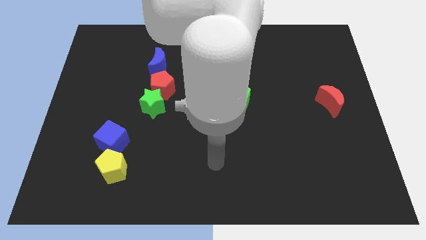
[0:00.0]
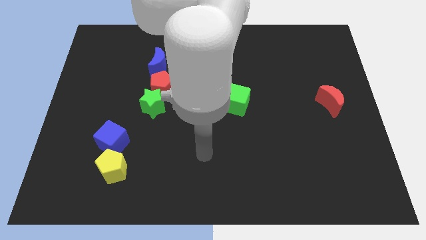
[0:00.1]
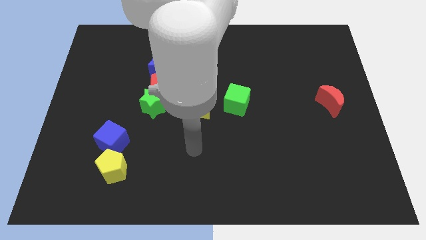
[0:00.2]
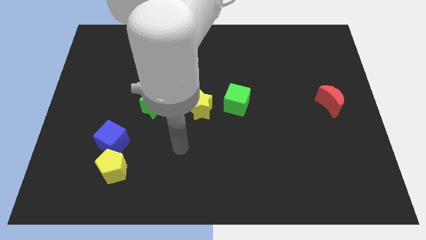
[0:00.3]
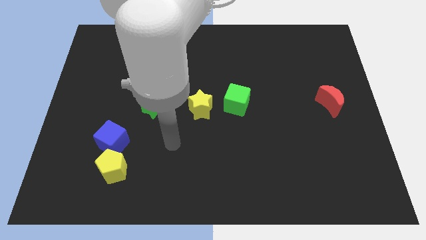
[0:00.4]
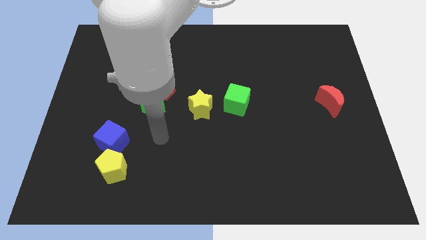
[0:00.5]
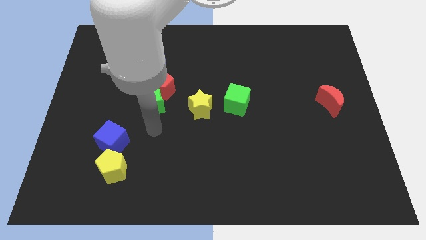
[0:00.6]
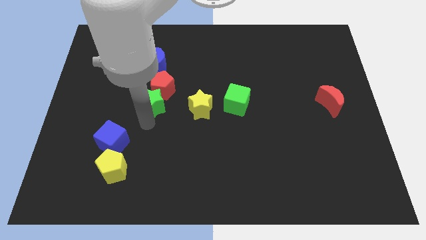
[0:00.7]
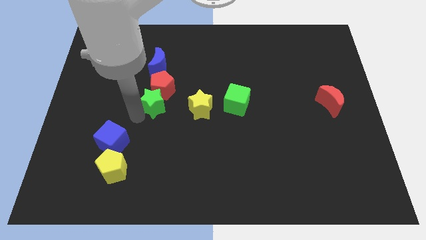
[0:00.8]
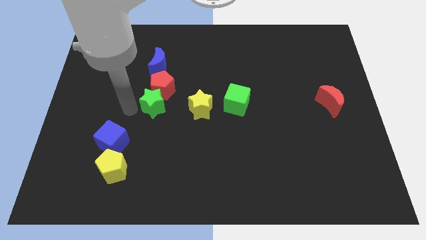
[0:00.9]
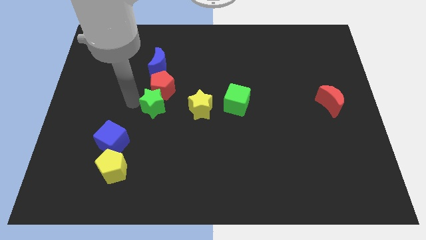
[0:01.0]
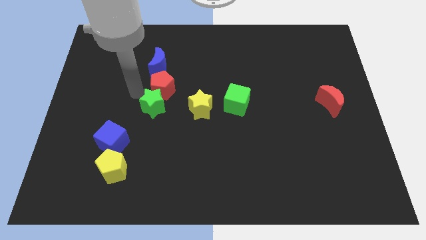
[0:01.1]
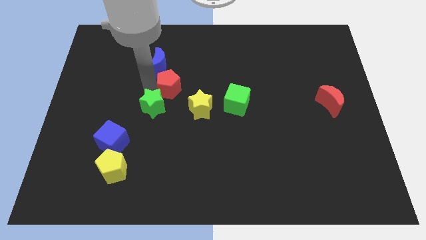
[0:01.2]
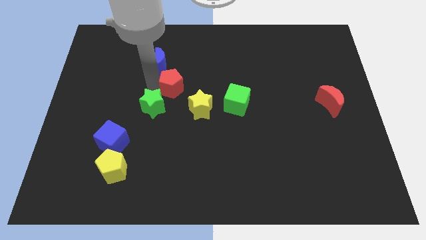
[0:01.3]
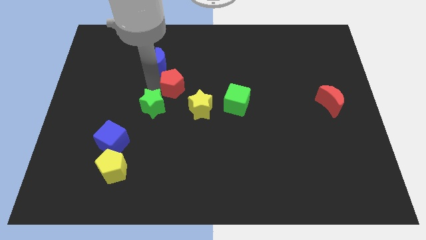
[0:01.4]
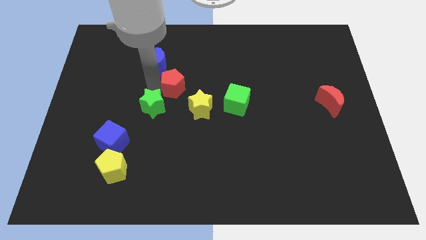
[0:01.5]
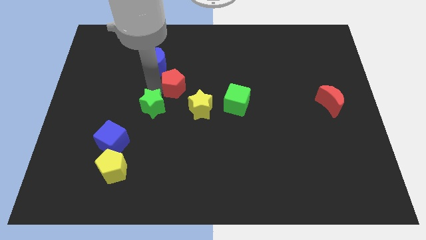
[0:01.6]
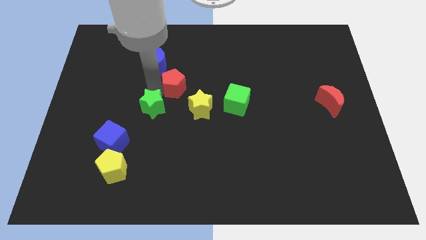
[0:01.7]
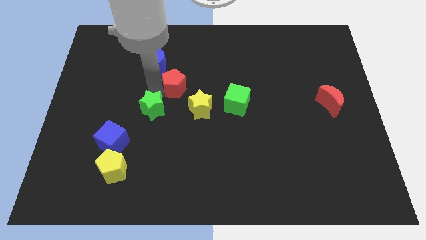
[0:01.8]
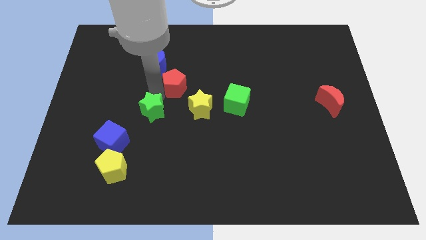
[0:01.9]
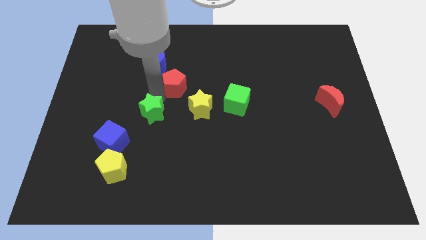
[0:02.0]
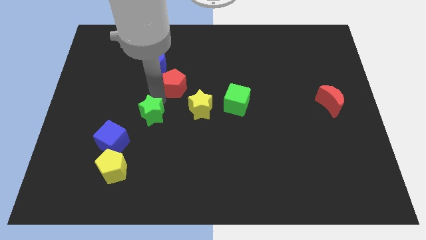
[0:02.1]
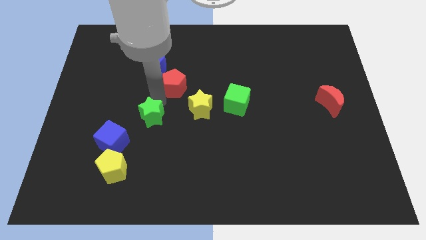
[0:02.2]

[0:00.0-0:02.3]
move the green star away from the red pentagon

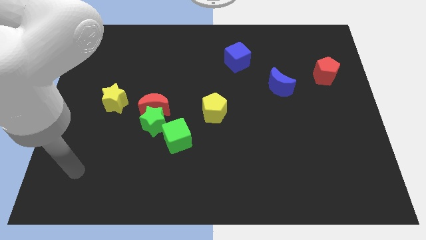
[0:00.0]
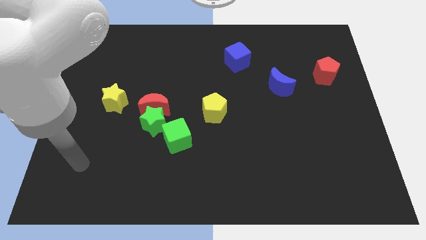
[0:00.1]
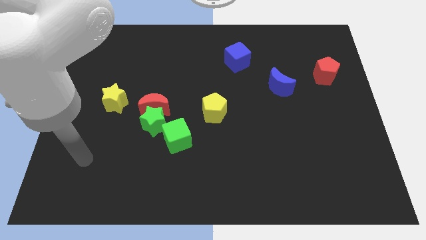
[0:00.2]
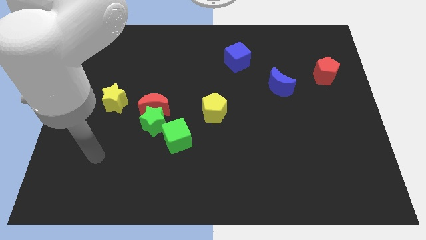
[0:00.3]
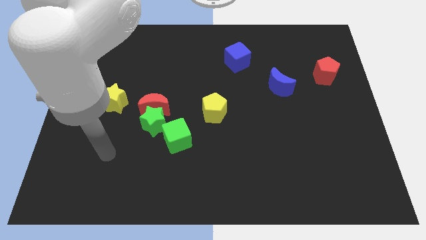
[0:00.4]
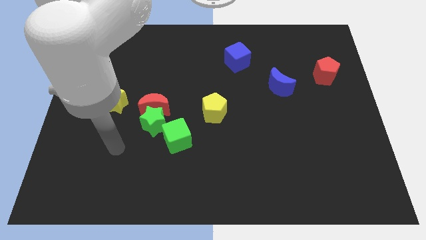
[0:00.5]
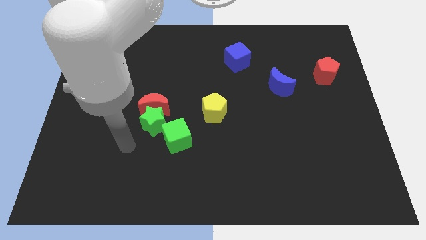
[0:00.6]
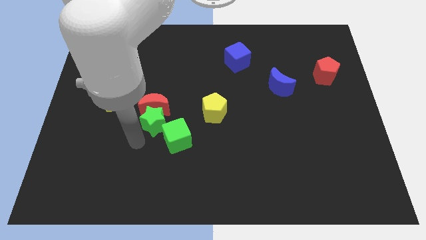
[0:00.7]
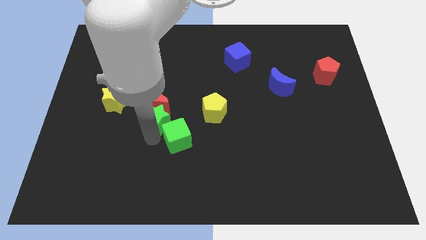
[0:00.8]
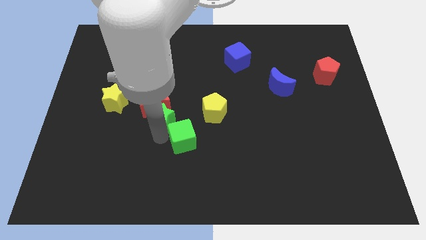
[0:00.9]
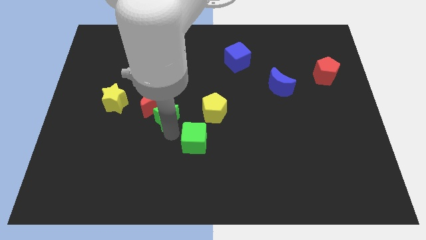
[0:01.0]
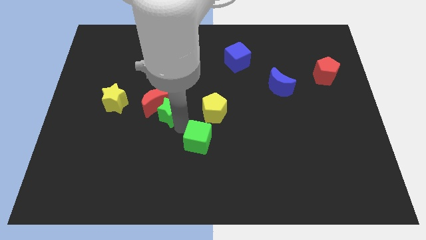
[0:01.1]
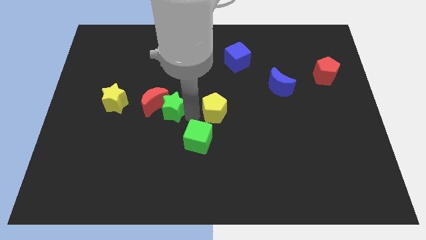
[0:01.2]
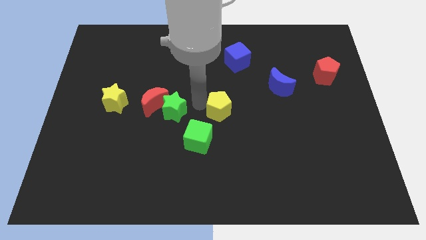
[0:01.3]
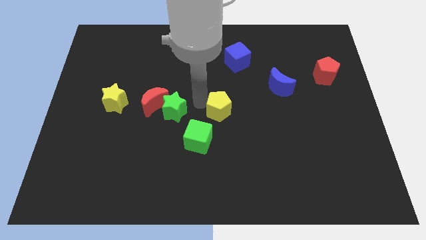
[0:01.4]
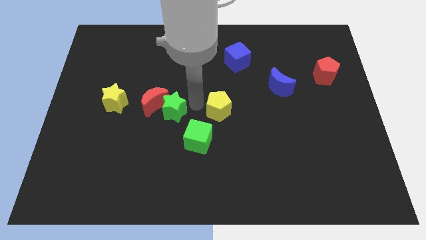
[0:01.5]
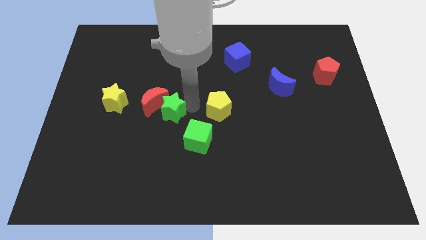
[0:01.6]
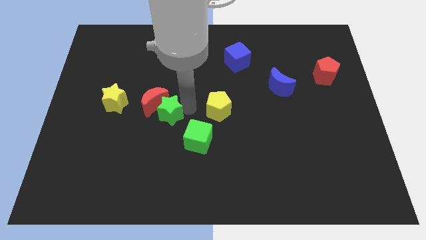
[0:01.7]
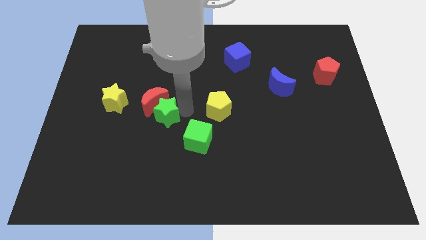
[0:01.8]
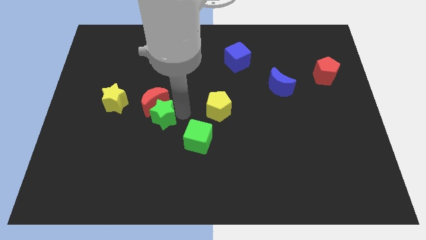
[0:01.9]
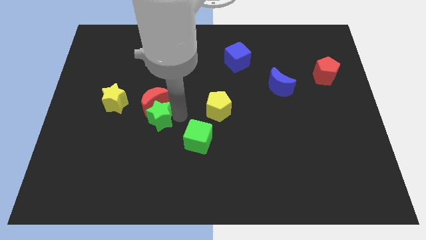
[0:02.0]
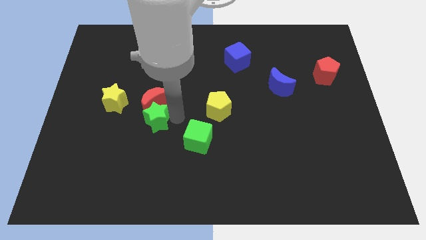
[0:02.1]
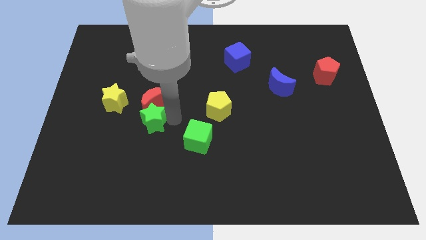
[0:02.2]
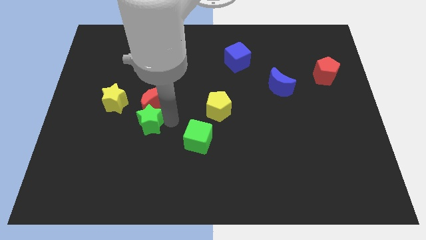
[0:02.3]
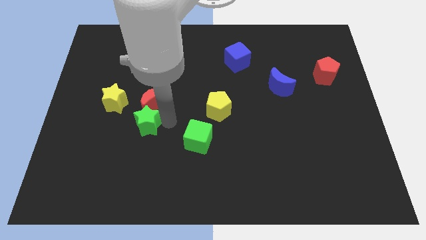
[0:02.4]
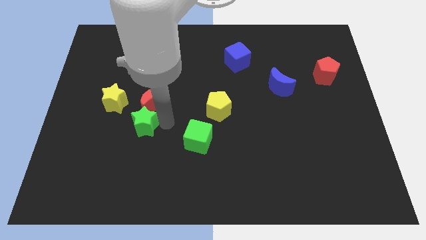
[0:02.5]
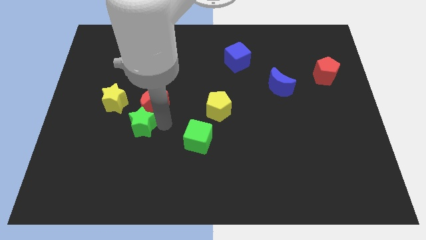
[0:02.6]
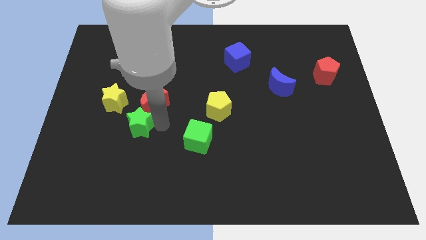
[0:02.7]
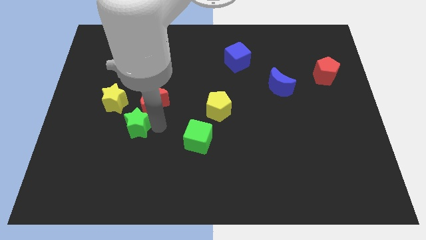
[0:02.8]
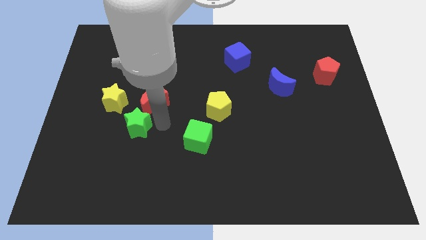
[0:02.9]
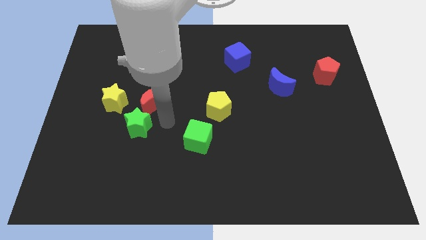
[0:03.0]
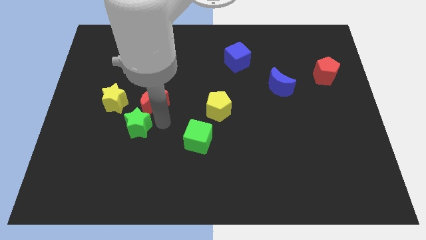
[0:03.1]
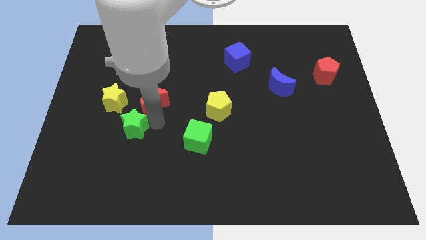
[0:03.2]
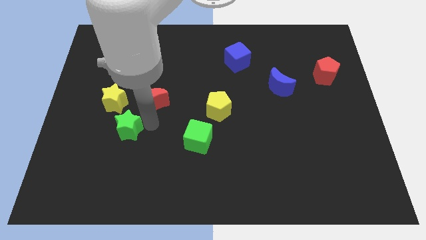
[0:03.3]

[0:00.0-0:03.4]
separate the green star from the red moon and green cube

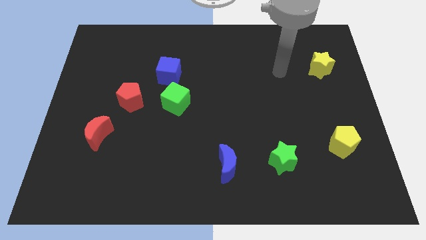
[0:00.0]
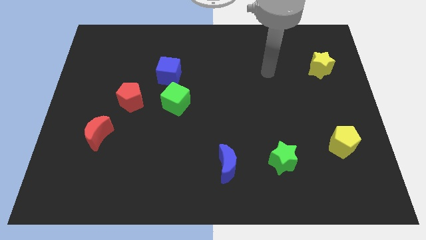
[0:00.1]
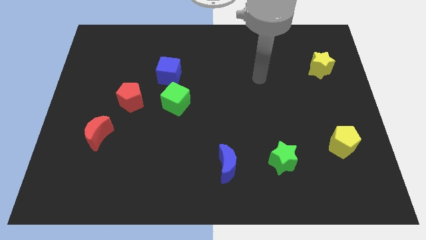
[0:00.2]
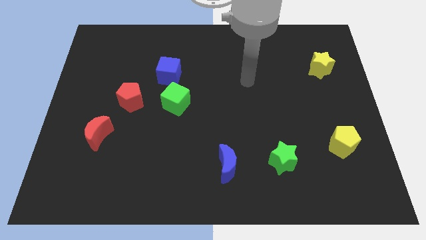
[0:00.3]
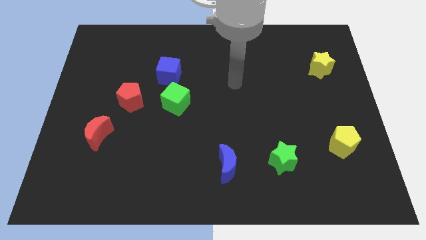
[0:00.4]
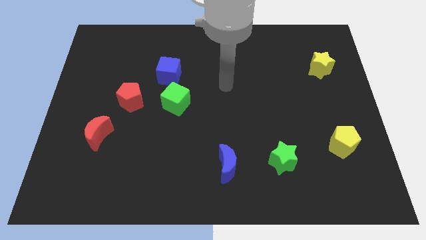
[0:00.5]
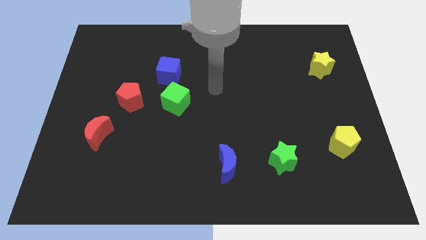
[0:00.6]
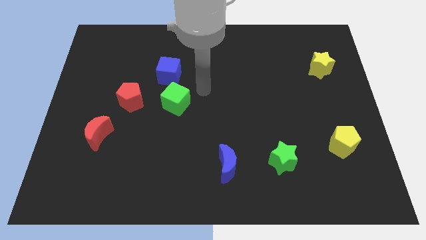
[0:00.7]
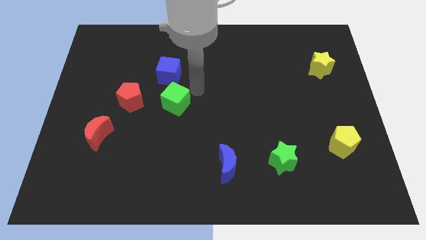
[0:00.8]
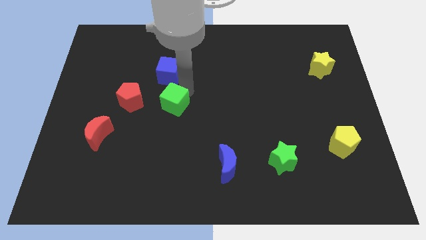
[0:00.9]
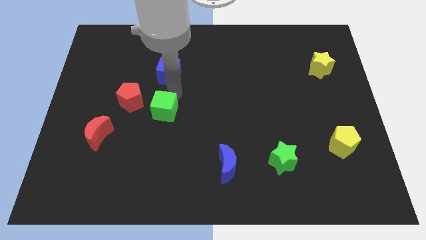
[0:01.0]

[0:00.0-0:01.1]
pull the blue cube apart from the green cube

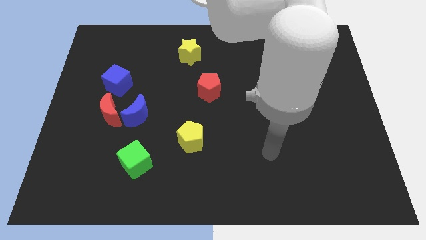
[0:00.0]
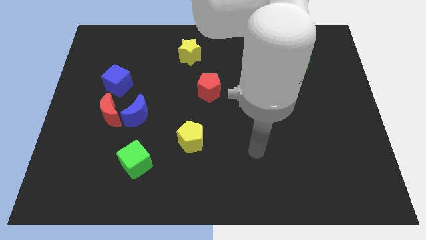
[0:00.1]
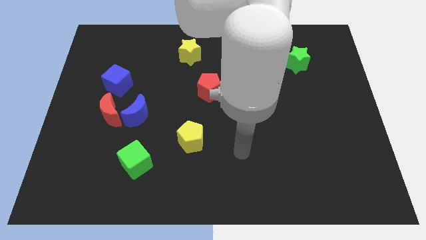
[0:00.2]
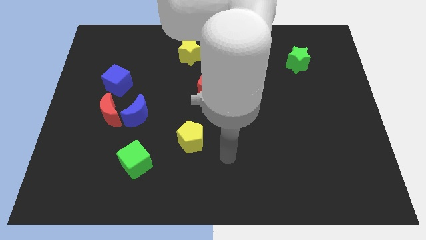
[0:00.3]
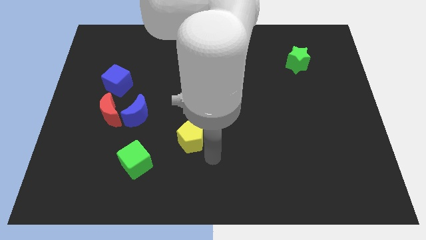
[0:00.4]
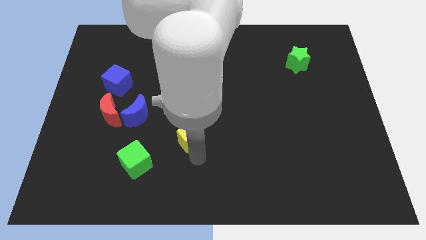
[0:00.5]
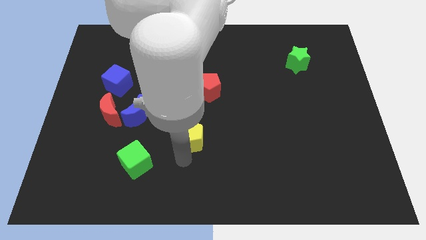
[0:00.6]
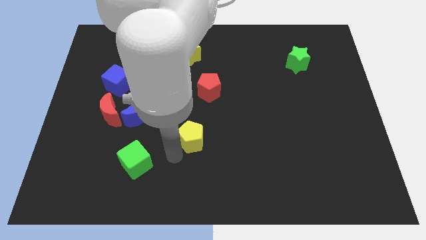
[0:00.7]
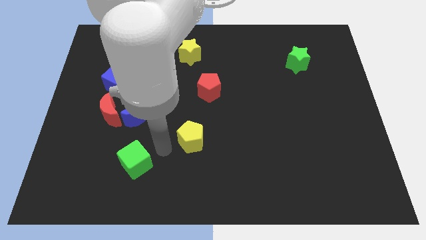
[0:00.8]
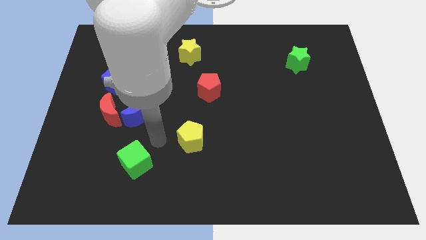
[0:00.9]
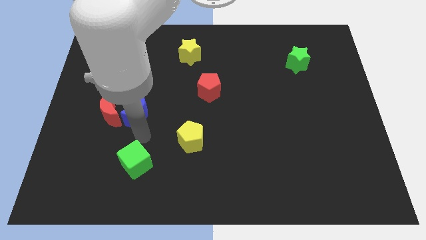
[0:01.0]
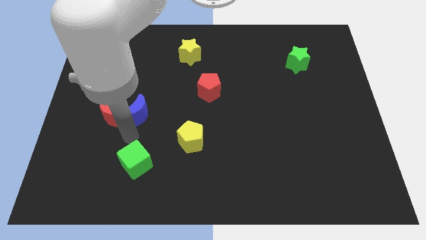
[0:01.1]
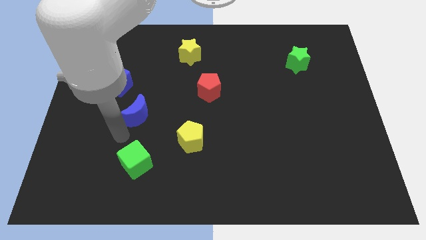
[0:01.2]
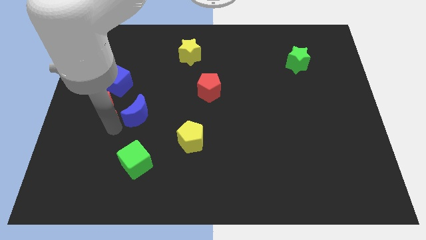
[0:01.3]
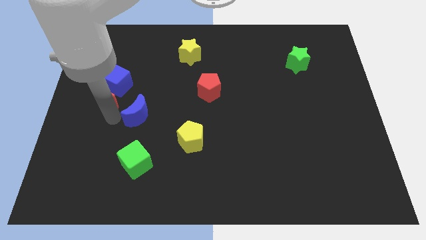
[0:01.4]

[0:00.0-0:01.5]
pull the blue moon apart from the red moon

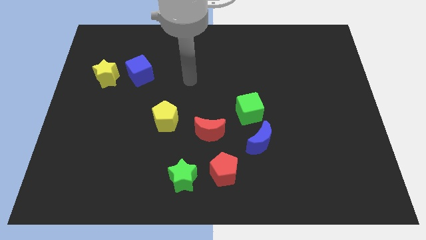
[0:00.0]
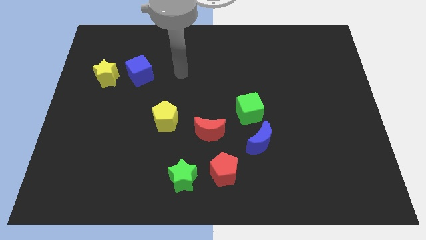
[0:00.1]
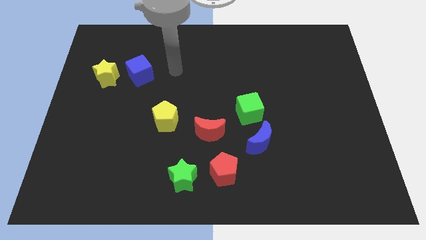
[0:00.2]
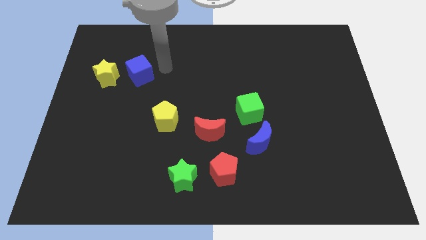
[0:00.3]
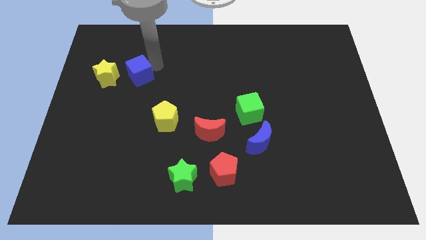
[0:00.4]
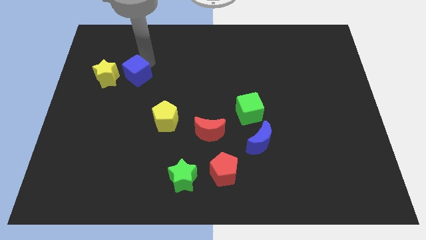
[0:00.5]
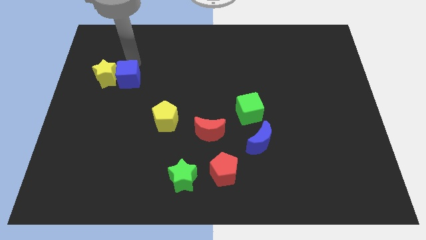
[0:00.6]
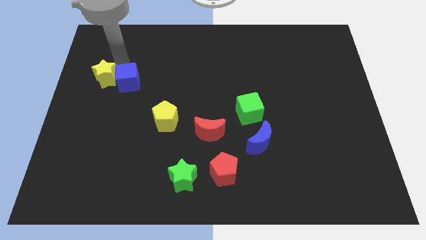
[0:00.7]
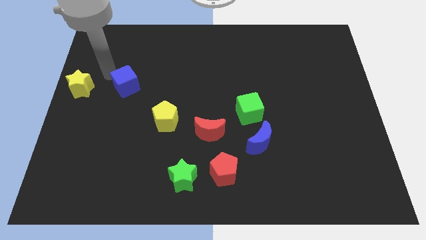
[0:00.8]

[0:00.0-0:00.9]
separate the blue cube from the yellow star
